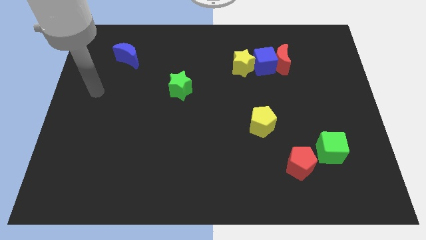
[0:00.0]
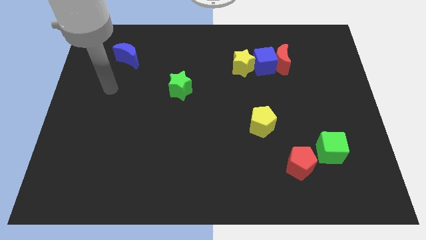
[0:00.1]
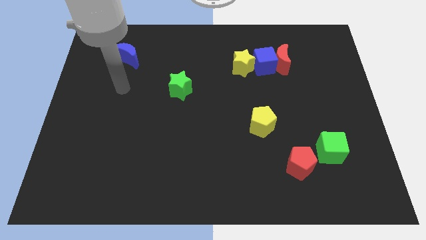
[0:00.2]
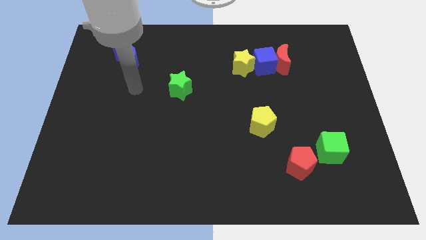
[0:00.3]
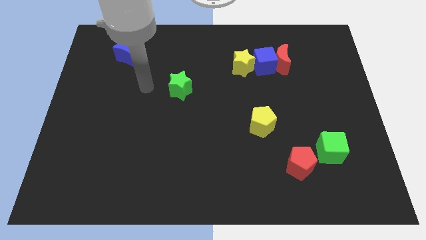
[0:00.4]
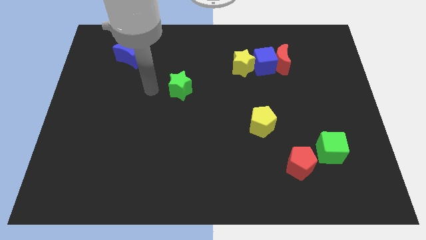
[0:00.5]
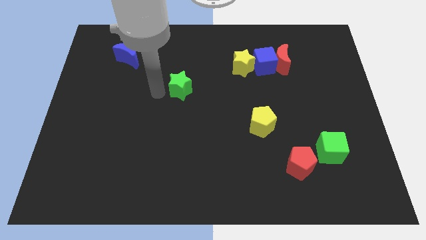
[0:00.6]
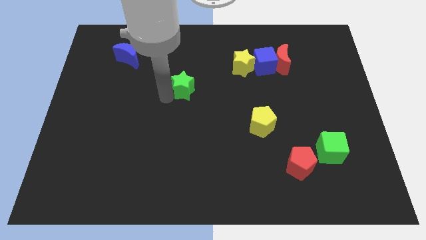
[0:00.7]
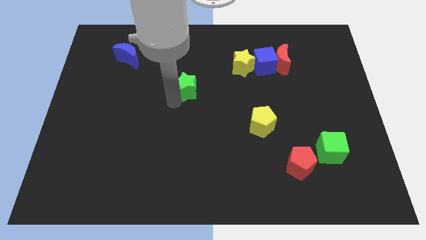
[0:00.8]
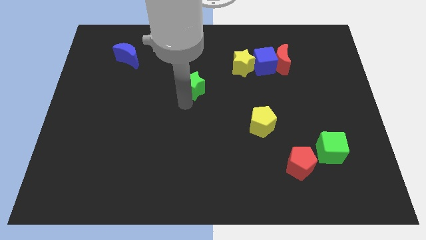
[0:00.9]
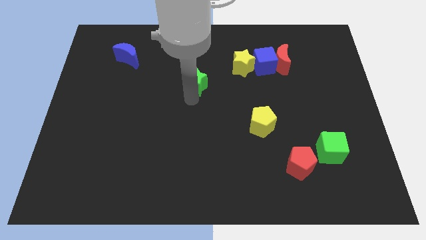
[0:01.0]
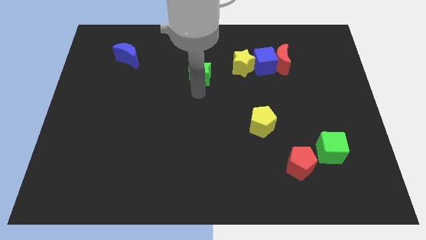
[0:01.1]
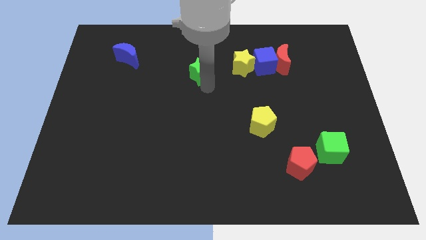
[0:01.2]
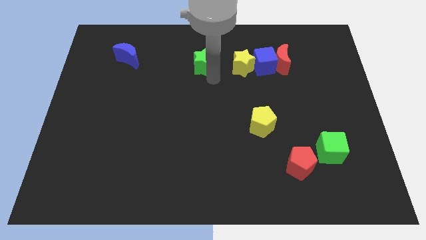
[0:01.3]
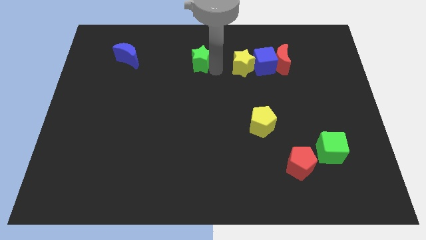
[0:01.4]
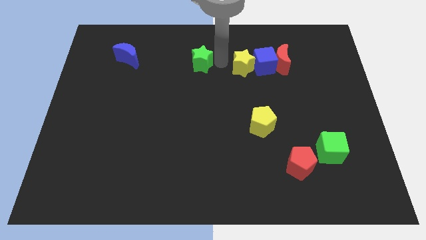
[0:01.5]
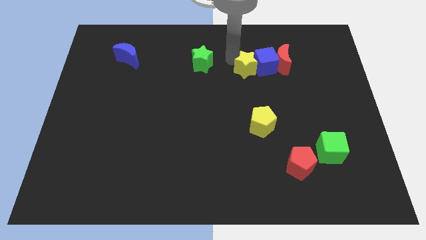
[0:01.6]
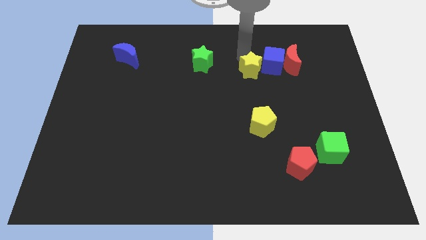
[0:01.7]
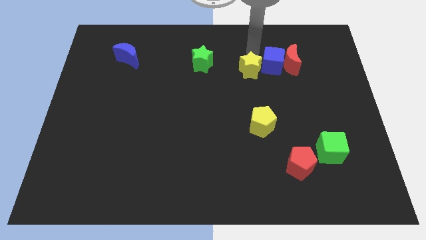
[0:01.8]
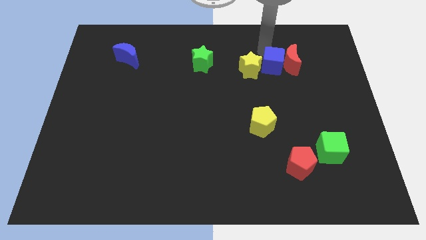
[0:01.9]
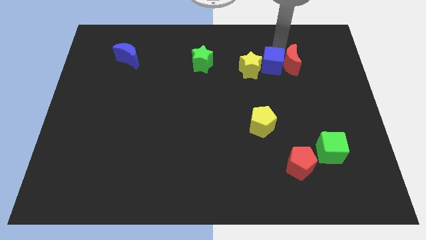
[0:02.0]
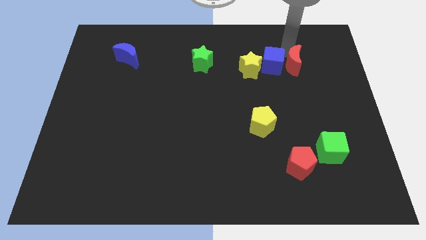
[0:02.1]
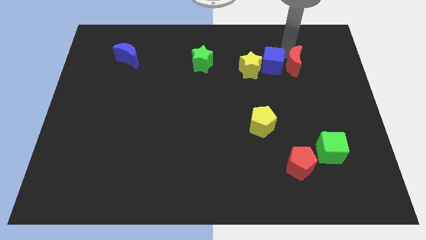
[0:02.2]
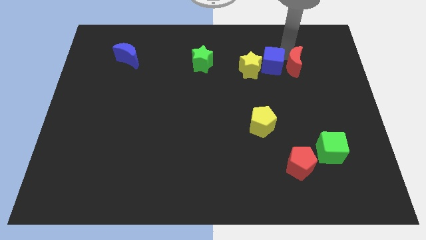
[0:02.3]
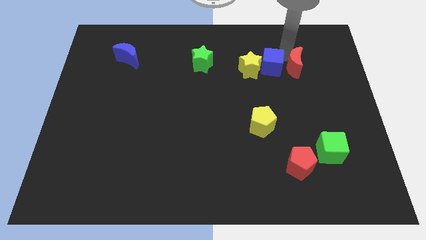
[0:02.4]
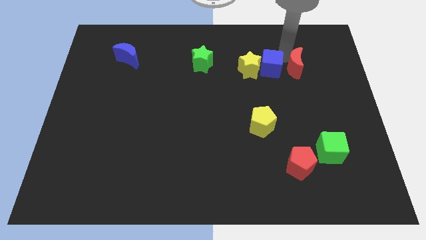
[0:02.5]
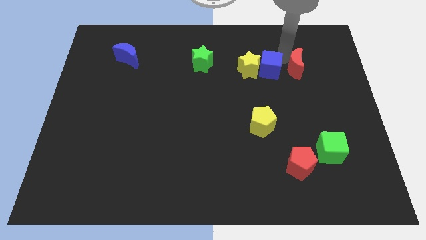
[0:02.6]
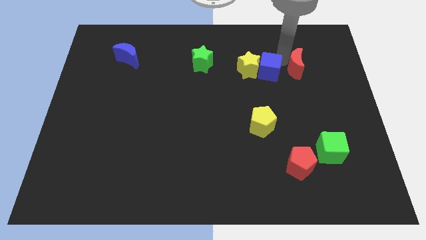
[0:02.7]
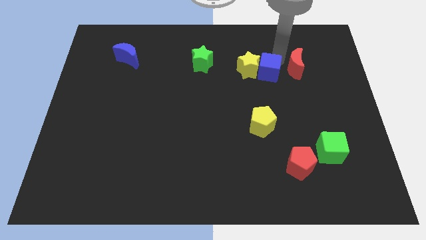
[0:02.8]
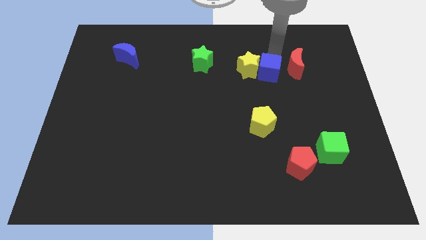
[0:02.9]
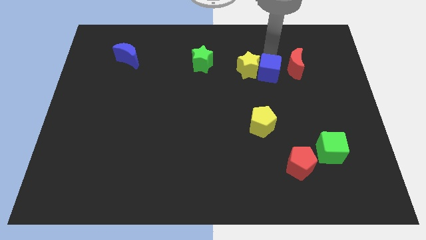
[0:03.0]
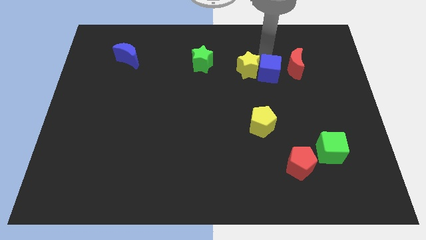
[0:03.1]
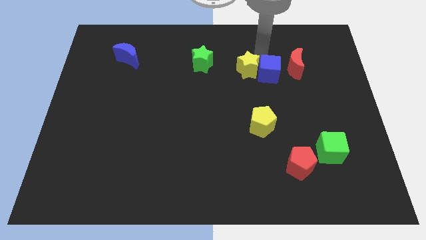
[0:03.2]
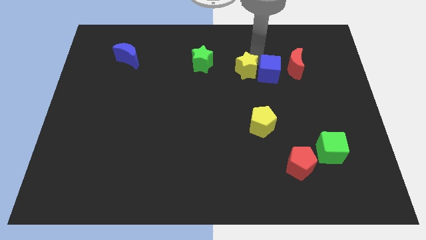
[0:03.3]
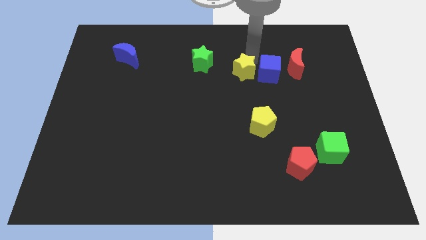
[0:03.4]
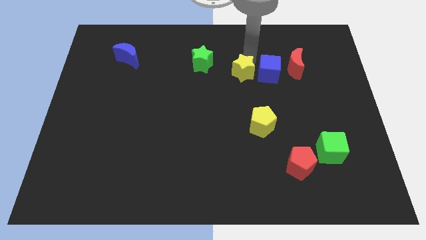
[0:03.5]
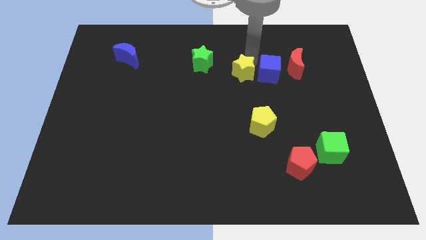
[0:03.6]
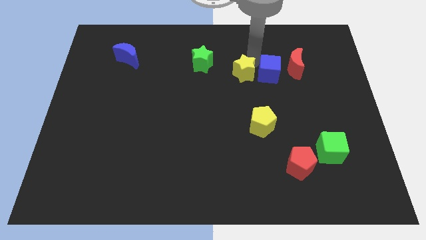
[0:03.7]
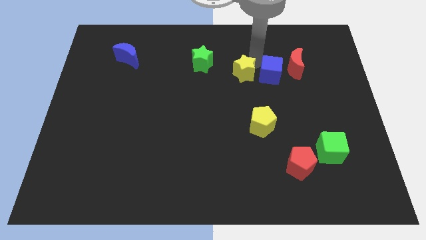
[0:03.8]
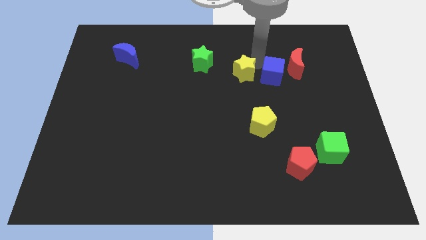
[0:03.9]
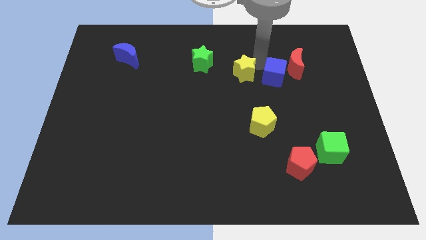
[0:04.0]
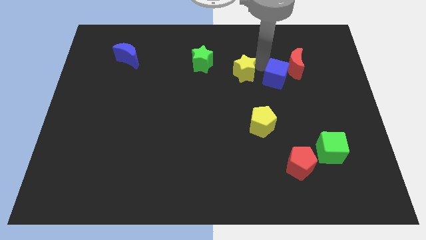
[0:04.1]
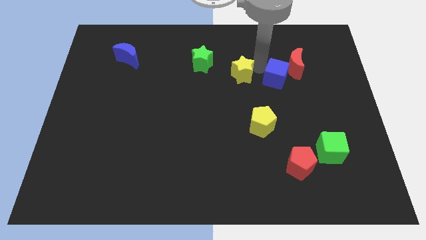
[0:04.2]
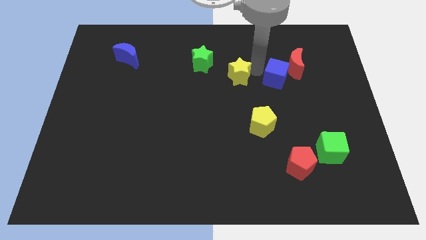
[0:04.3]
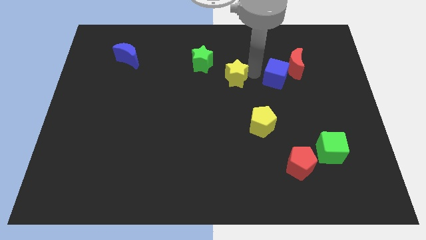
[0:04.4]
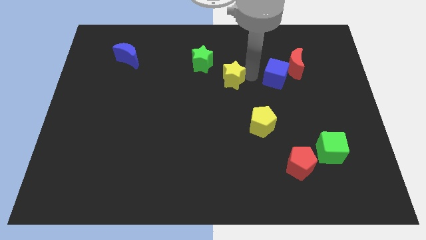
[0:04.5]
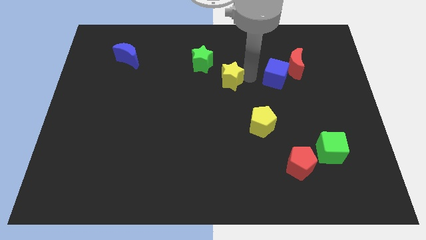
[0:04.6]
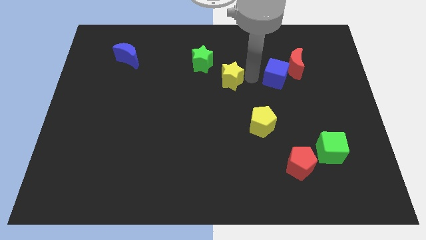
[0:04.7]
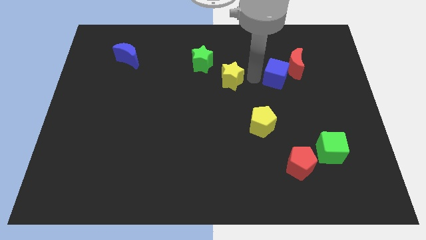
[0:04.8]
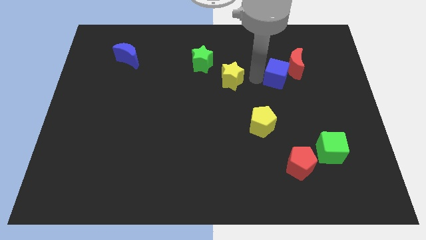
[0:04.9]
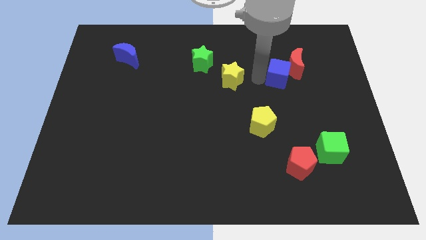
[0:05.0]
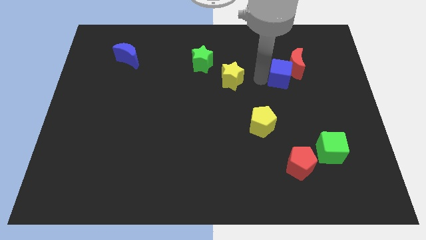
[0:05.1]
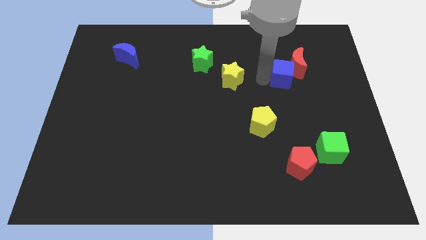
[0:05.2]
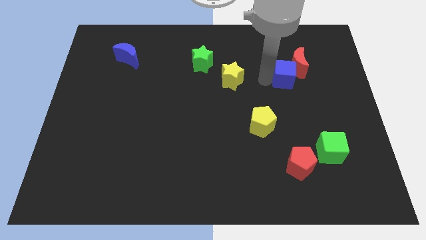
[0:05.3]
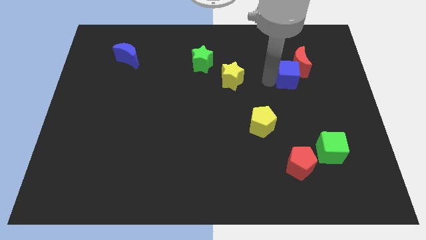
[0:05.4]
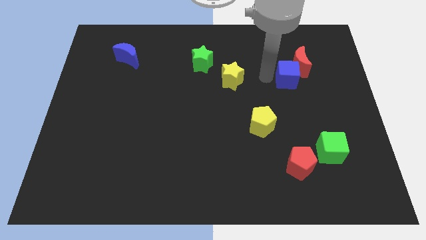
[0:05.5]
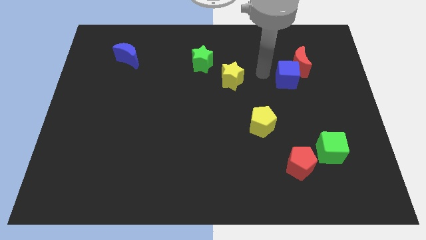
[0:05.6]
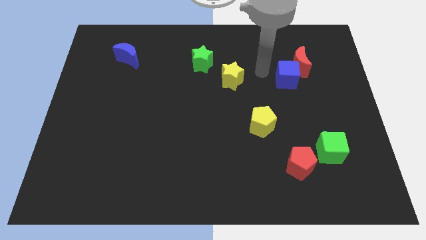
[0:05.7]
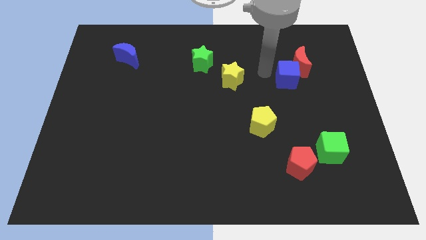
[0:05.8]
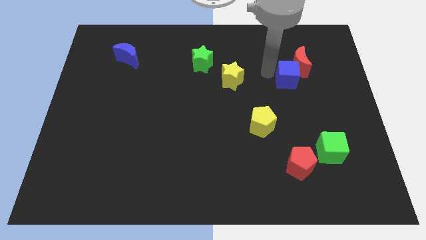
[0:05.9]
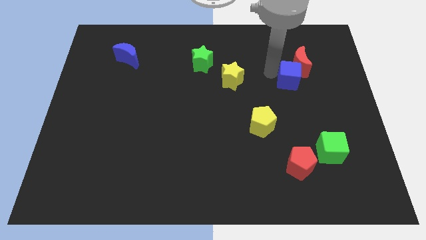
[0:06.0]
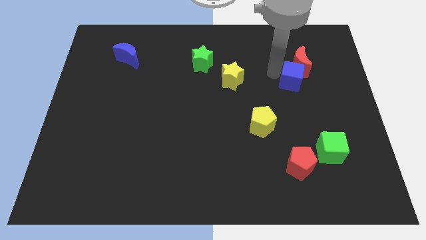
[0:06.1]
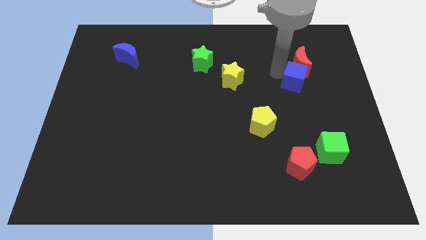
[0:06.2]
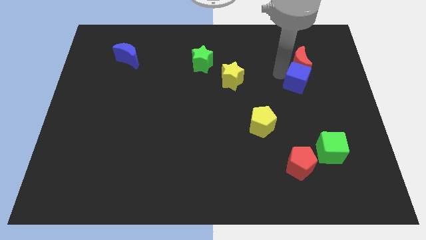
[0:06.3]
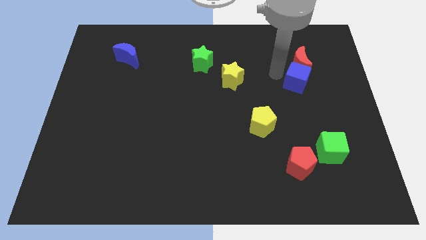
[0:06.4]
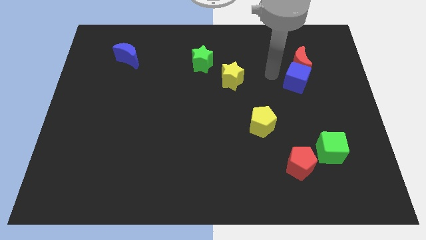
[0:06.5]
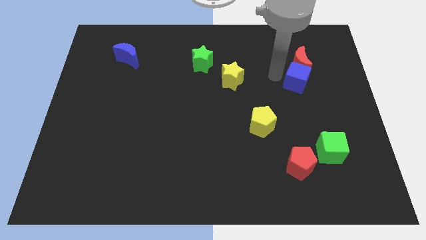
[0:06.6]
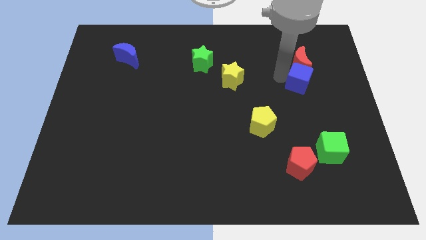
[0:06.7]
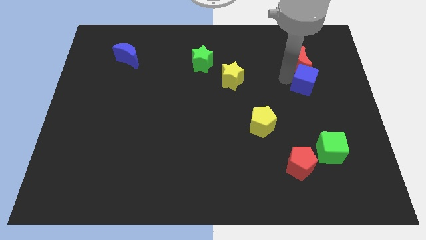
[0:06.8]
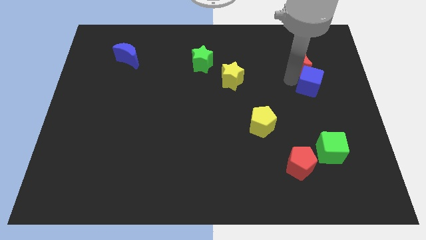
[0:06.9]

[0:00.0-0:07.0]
move the blue cube away from the red moon and yellow star

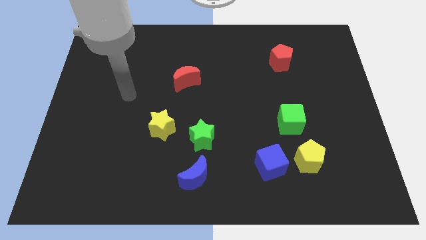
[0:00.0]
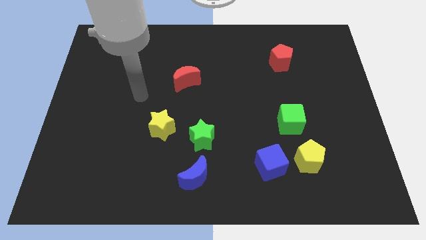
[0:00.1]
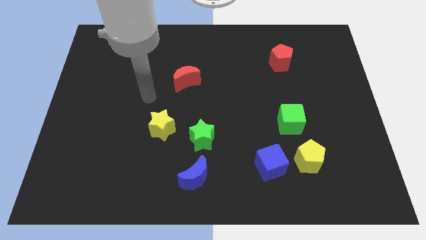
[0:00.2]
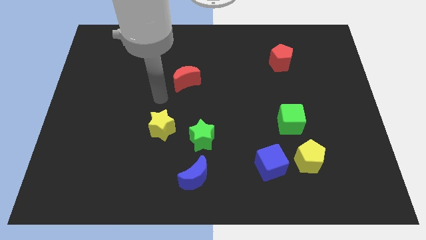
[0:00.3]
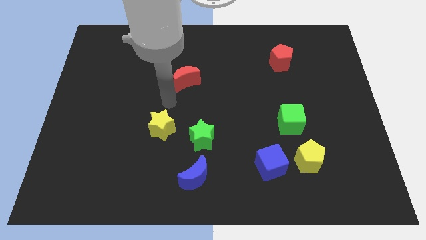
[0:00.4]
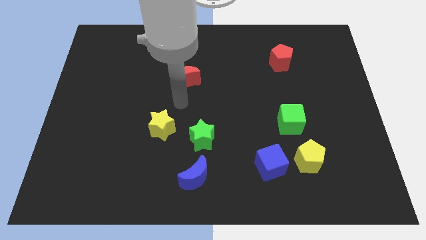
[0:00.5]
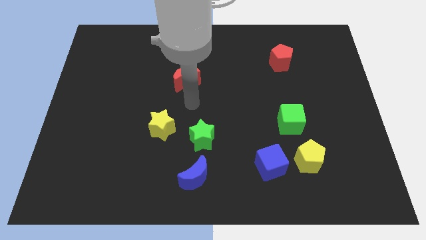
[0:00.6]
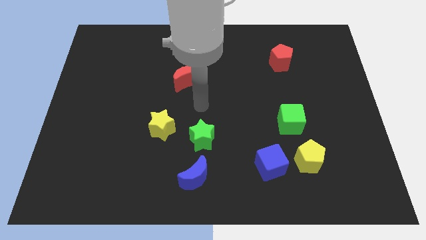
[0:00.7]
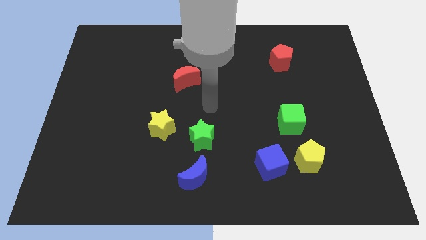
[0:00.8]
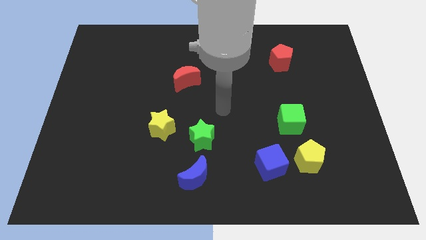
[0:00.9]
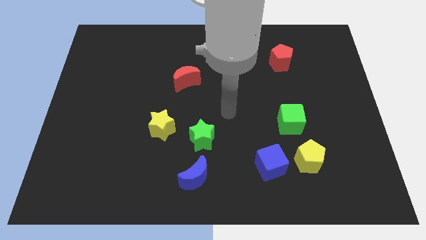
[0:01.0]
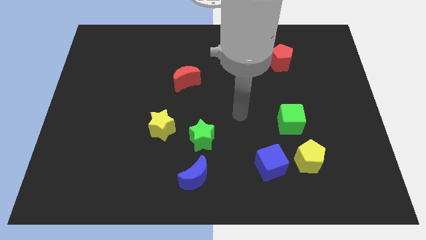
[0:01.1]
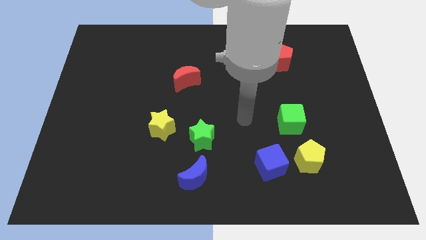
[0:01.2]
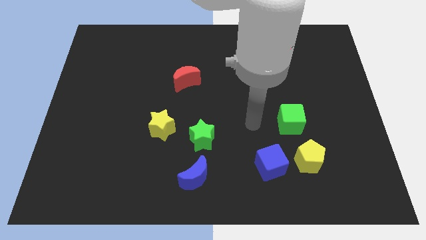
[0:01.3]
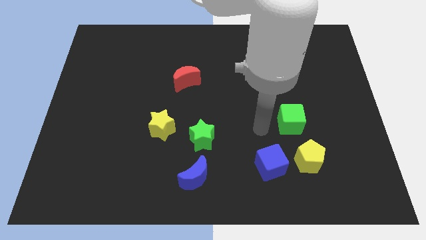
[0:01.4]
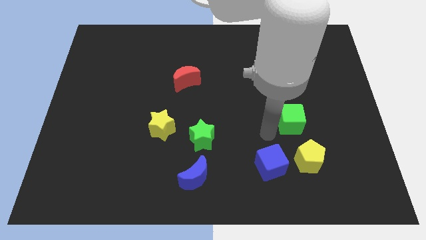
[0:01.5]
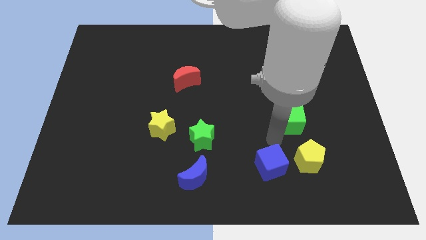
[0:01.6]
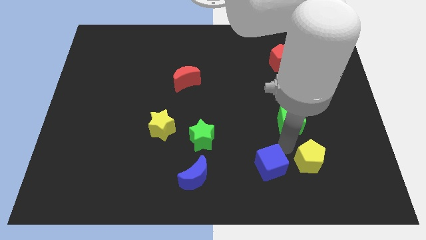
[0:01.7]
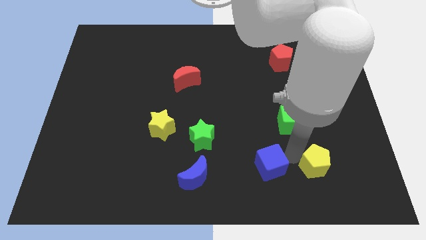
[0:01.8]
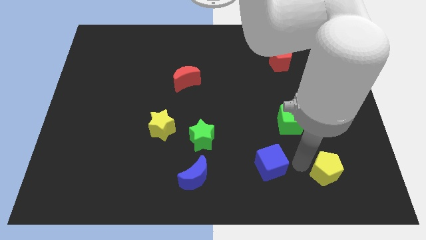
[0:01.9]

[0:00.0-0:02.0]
separate the blue cube from the yellow pentagon

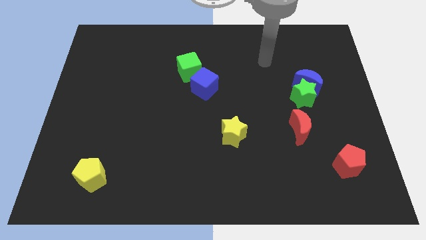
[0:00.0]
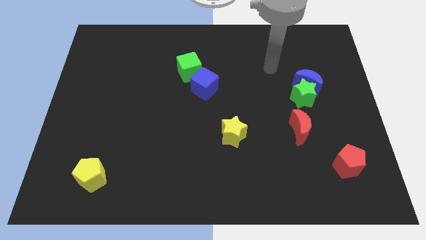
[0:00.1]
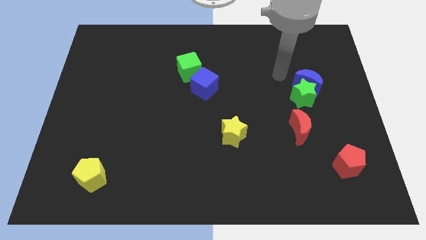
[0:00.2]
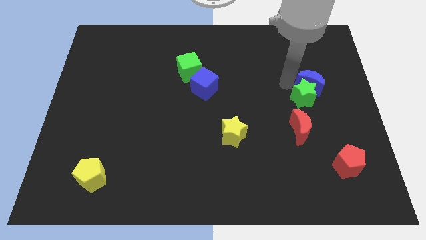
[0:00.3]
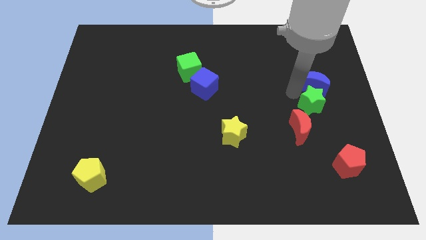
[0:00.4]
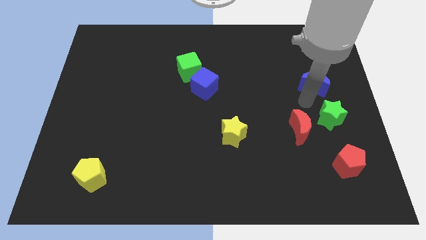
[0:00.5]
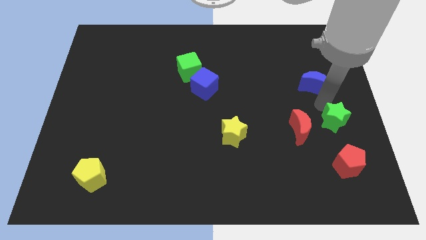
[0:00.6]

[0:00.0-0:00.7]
move the blue moon away from the green star
